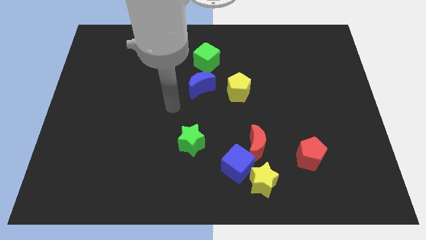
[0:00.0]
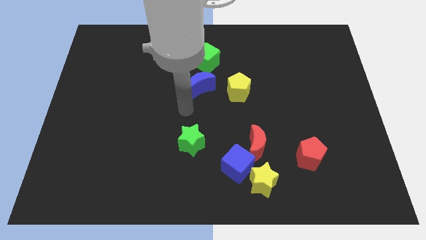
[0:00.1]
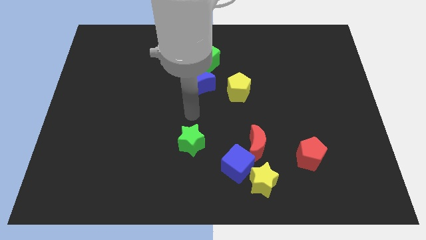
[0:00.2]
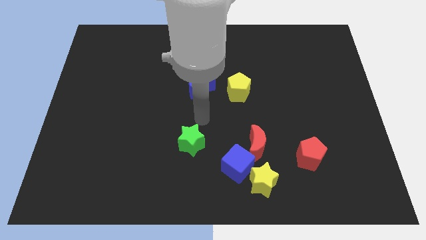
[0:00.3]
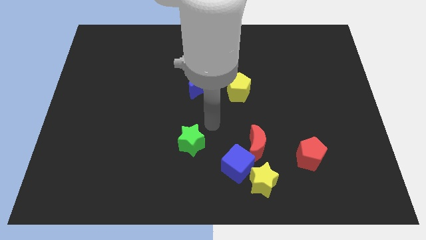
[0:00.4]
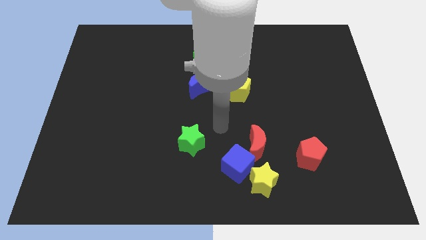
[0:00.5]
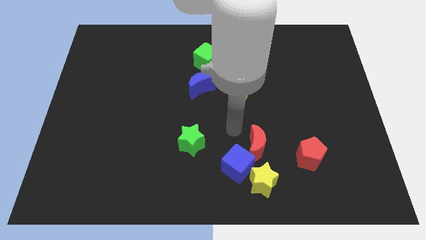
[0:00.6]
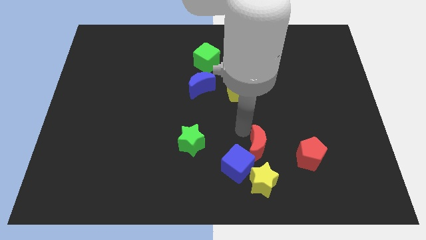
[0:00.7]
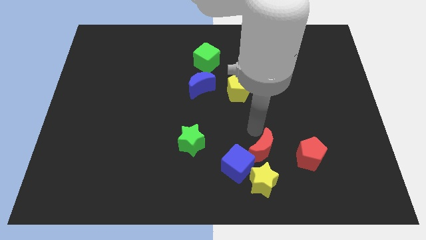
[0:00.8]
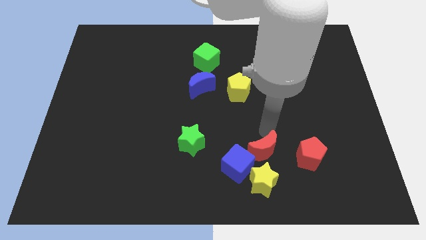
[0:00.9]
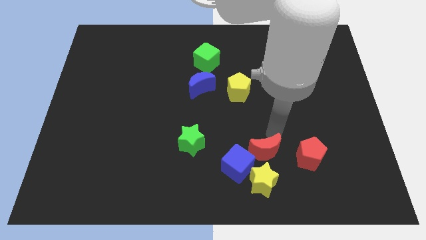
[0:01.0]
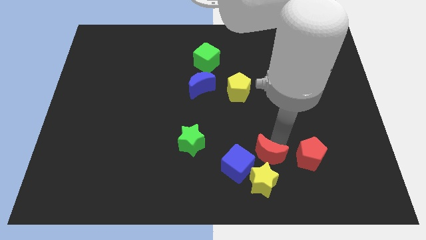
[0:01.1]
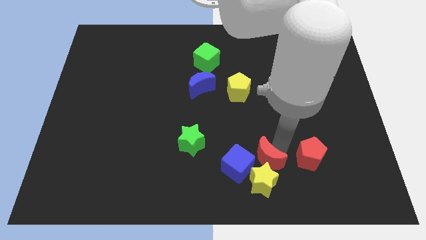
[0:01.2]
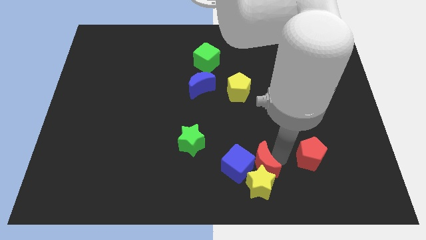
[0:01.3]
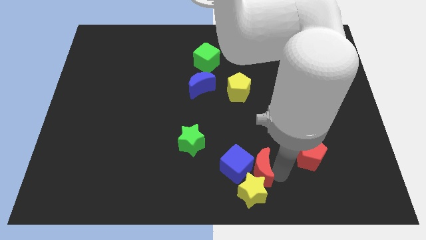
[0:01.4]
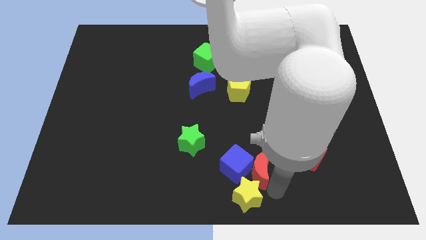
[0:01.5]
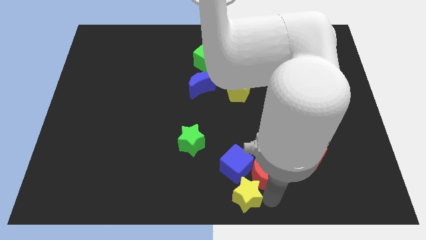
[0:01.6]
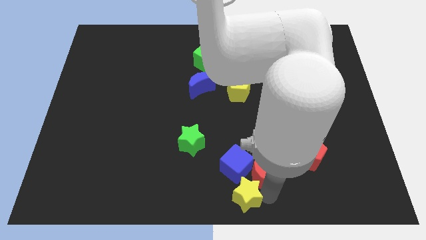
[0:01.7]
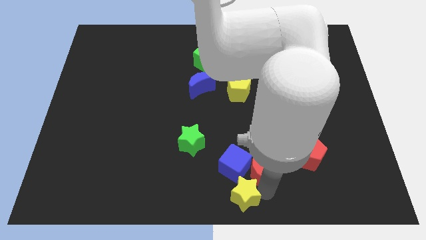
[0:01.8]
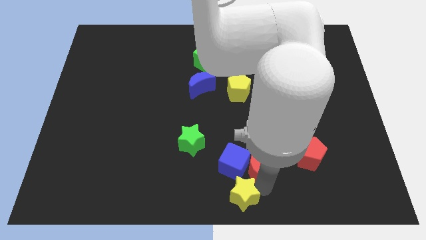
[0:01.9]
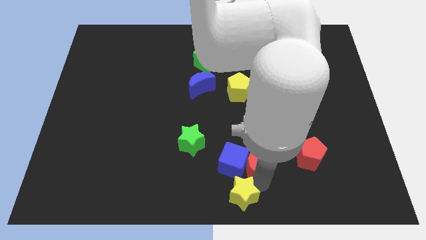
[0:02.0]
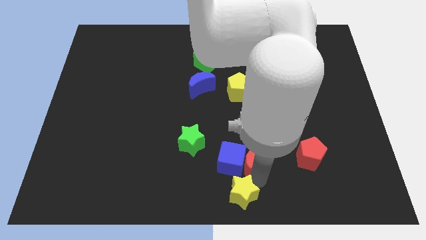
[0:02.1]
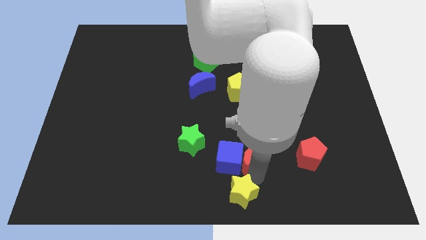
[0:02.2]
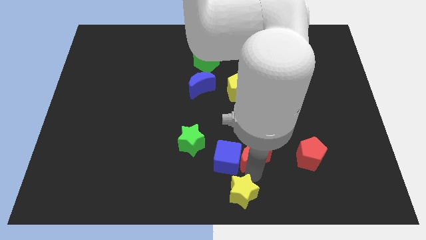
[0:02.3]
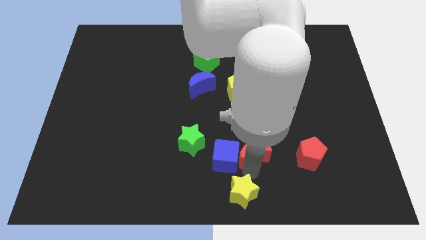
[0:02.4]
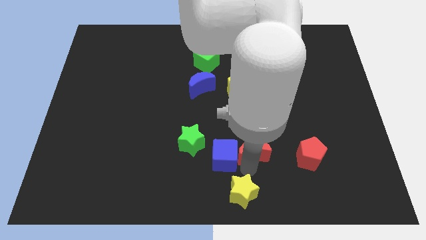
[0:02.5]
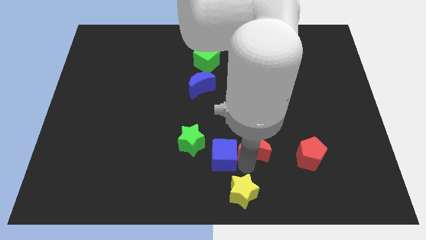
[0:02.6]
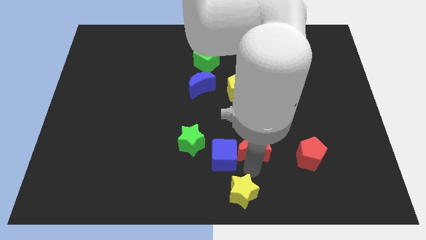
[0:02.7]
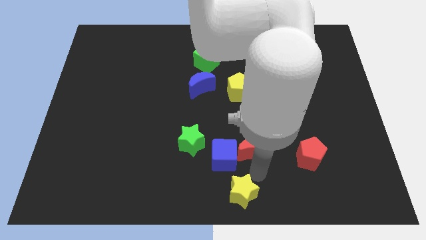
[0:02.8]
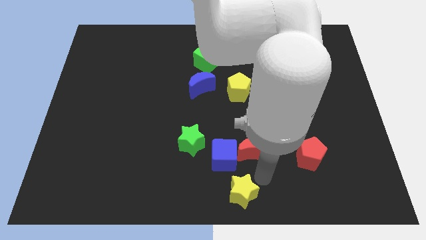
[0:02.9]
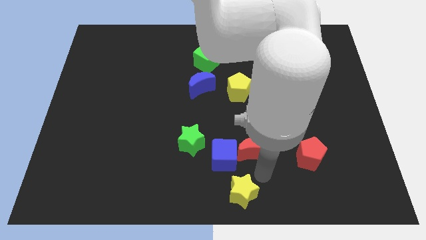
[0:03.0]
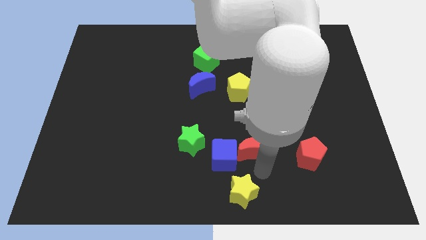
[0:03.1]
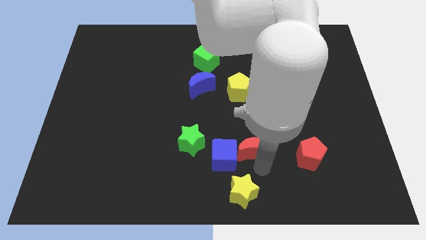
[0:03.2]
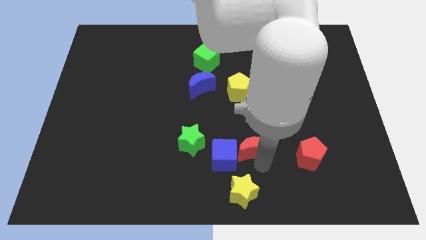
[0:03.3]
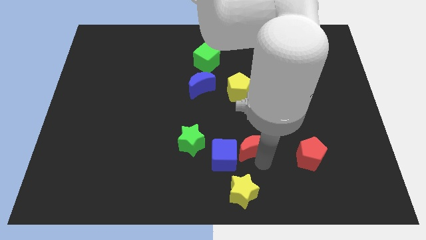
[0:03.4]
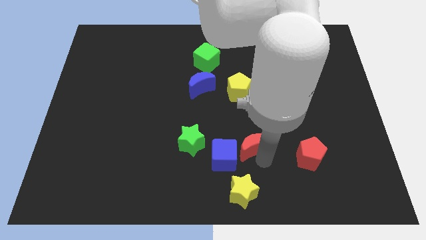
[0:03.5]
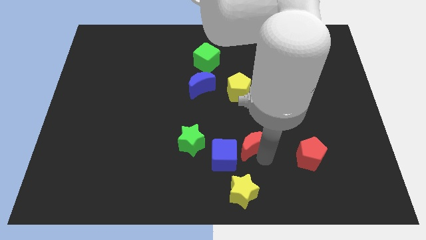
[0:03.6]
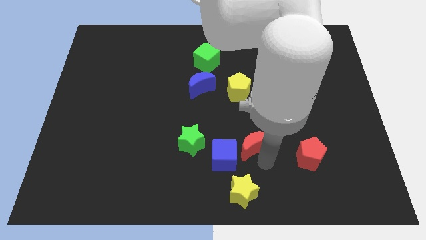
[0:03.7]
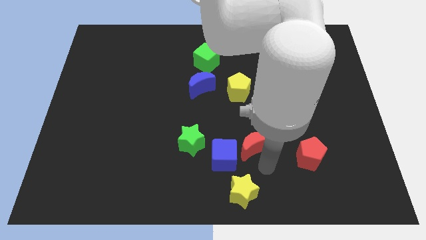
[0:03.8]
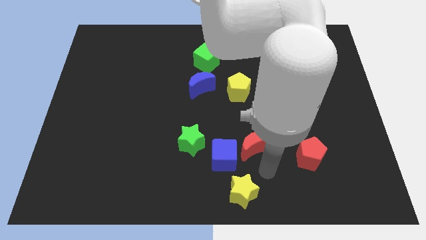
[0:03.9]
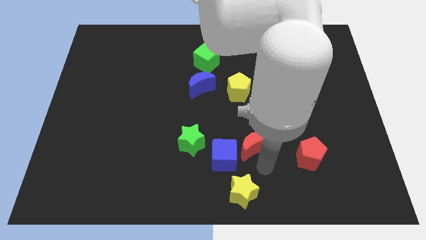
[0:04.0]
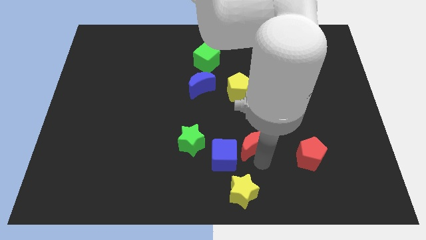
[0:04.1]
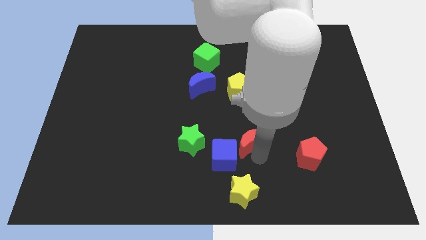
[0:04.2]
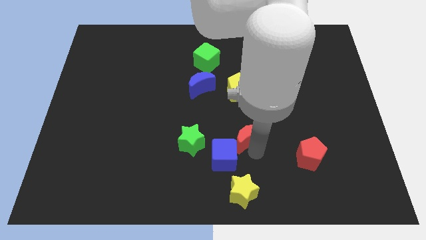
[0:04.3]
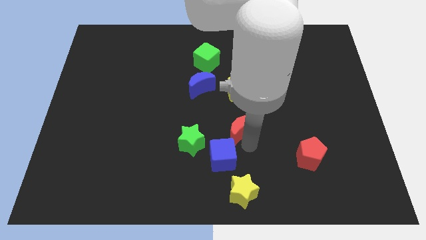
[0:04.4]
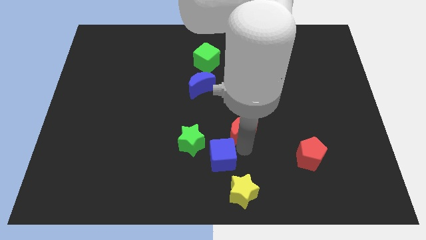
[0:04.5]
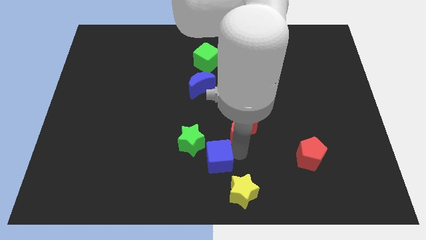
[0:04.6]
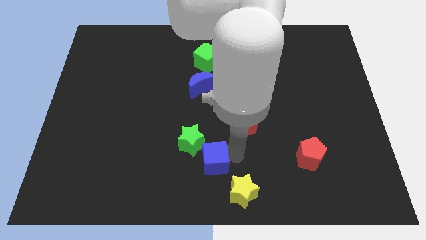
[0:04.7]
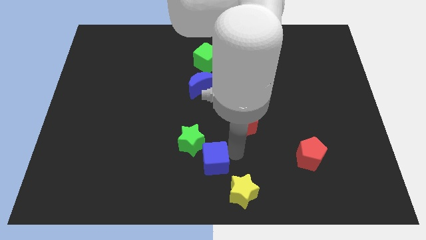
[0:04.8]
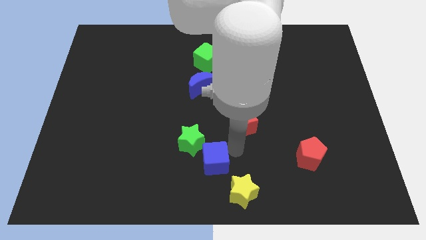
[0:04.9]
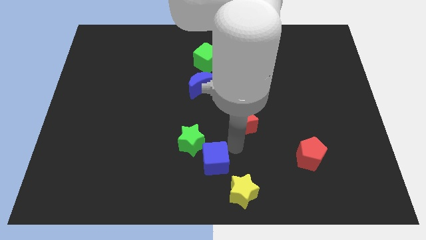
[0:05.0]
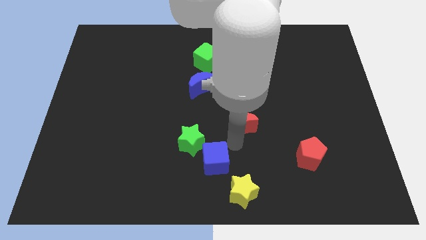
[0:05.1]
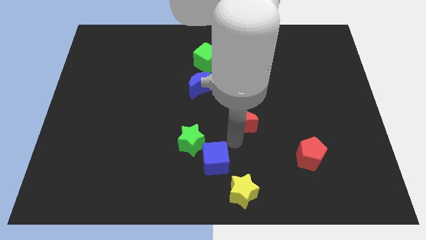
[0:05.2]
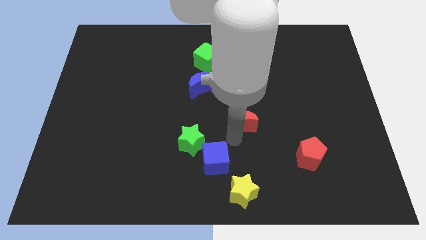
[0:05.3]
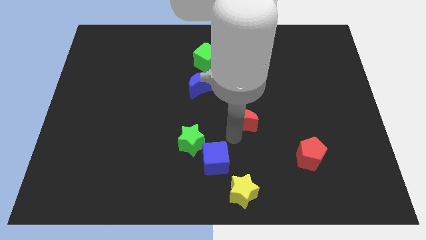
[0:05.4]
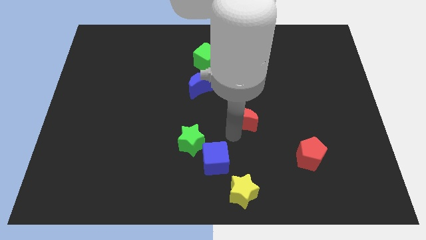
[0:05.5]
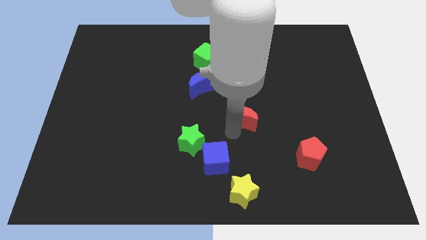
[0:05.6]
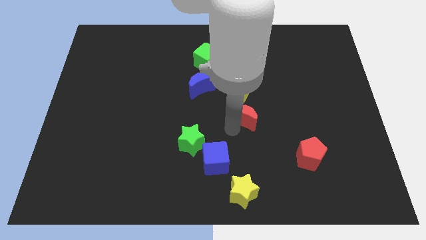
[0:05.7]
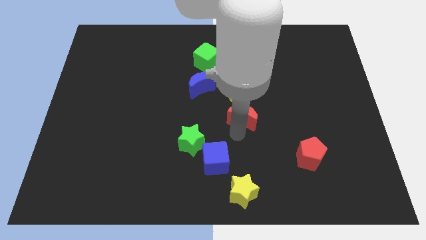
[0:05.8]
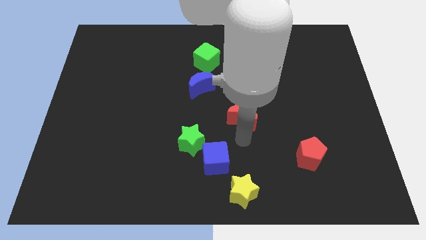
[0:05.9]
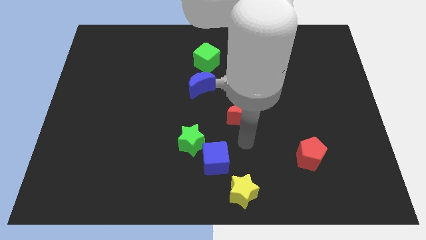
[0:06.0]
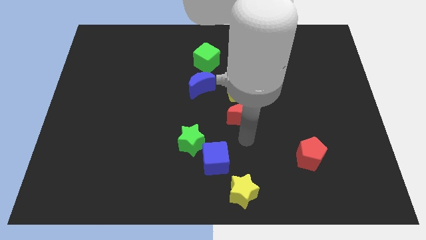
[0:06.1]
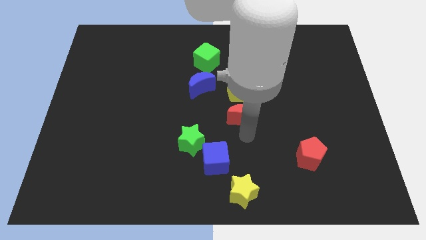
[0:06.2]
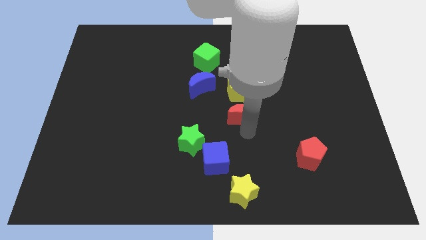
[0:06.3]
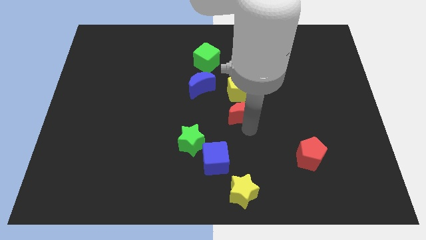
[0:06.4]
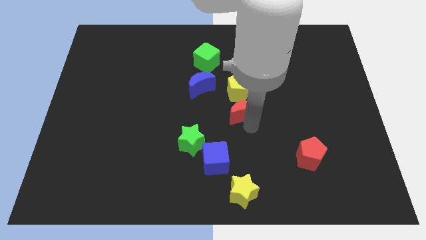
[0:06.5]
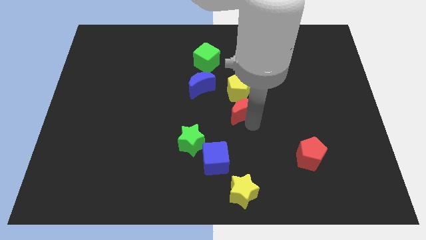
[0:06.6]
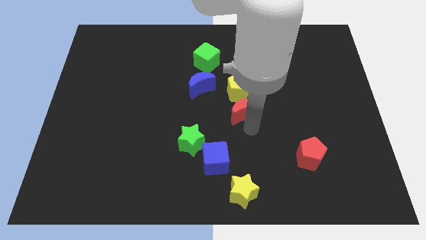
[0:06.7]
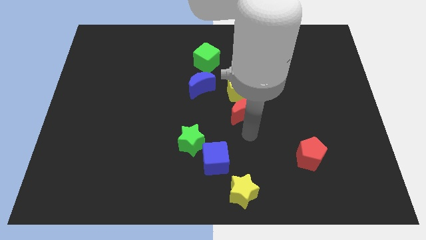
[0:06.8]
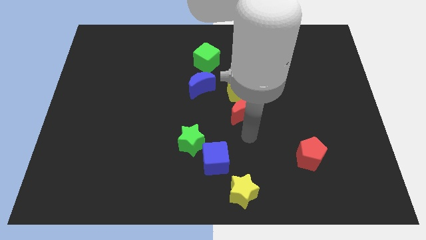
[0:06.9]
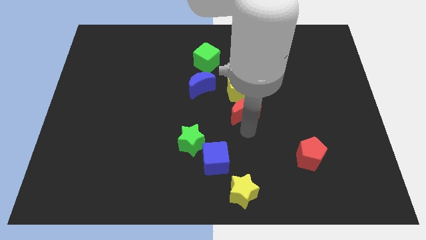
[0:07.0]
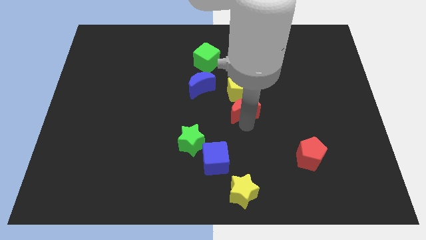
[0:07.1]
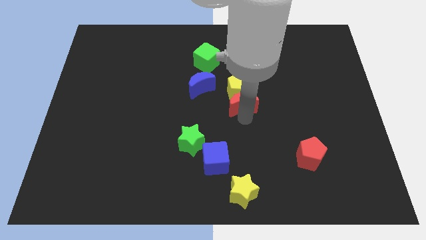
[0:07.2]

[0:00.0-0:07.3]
push the red moon towards the yellow pentagon
